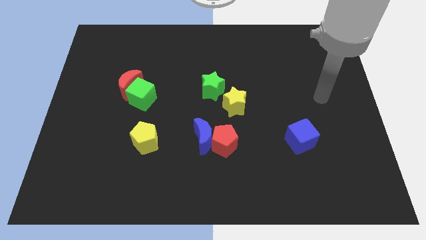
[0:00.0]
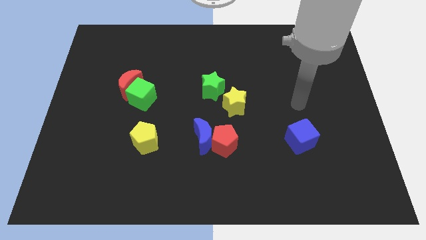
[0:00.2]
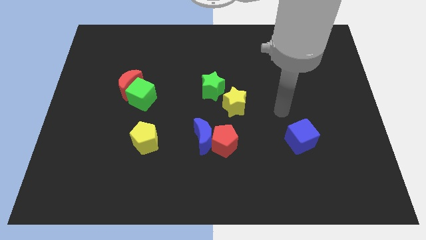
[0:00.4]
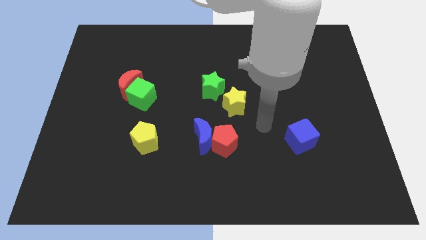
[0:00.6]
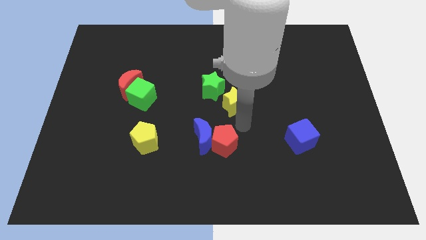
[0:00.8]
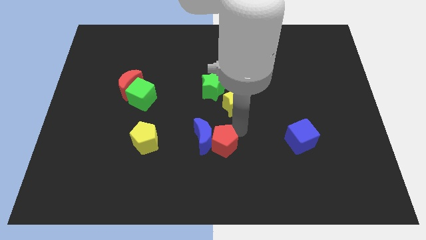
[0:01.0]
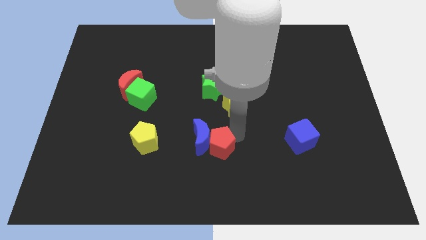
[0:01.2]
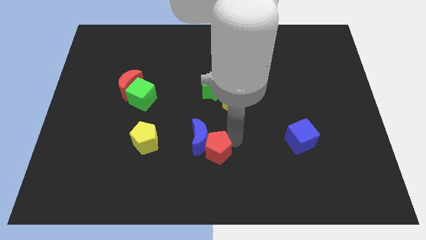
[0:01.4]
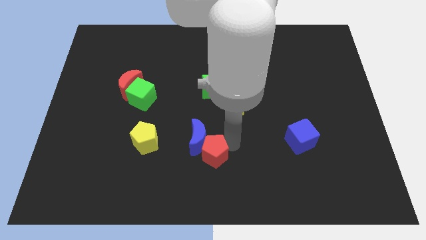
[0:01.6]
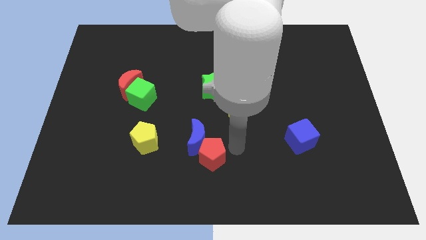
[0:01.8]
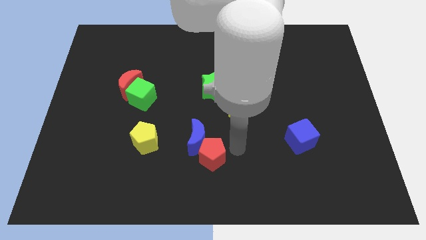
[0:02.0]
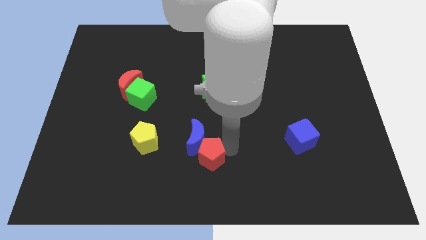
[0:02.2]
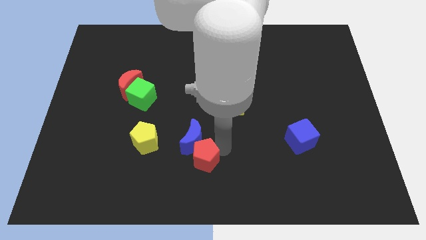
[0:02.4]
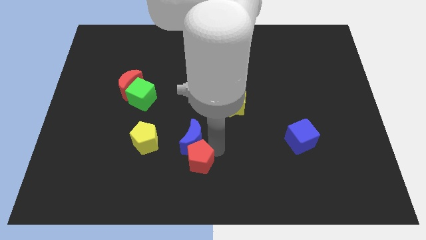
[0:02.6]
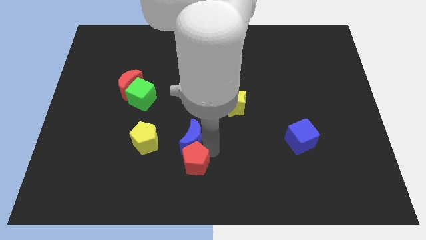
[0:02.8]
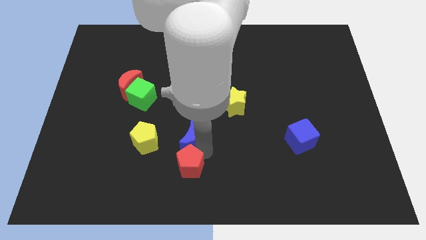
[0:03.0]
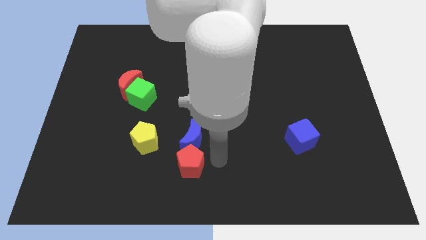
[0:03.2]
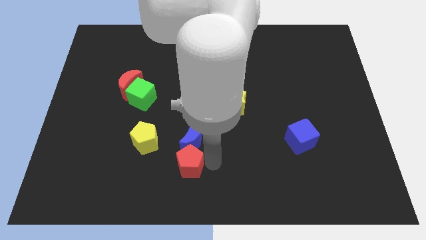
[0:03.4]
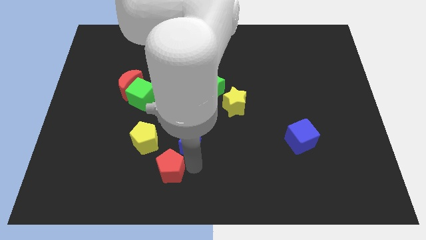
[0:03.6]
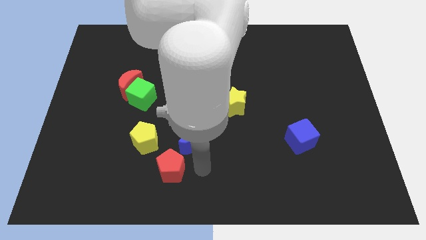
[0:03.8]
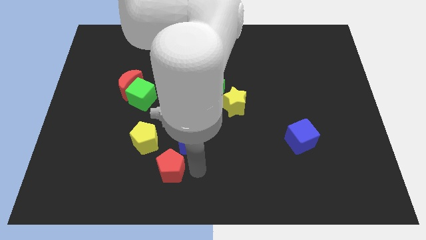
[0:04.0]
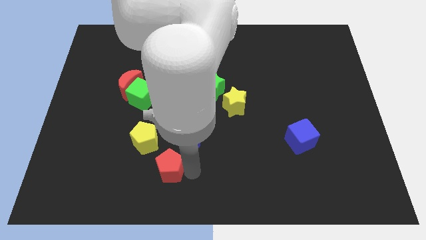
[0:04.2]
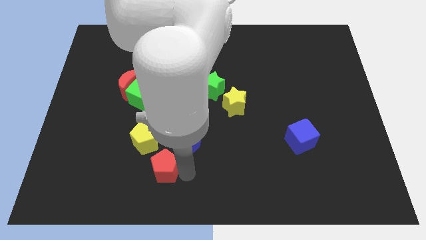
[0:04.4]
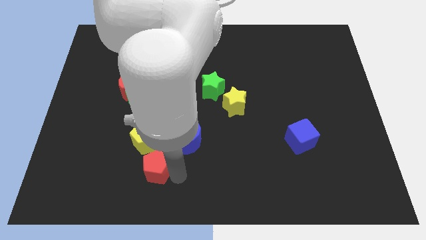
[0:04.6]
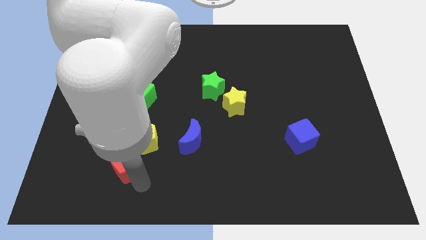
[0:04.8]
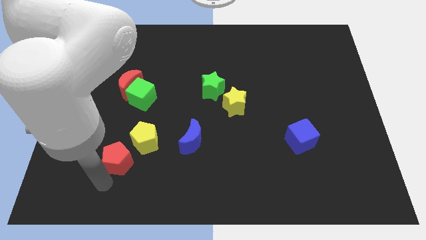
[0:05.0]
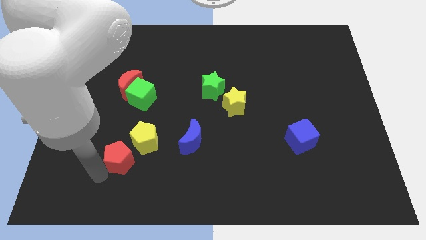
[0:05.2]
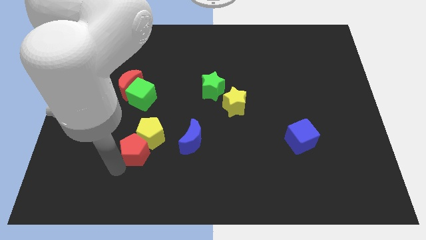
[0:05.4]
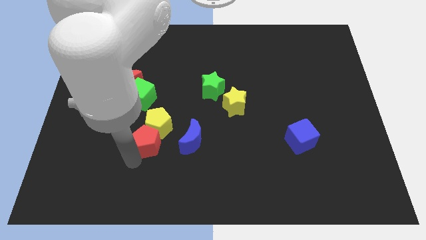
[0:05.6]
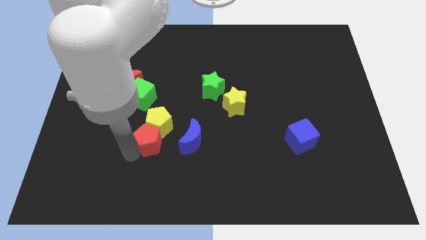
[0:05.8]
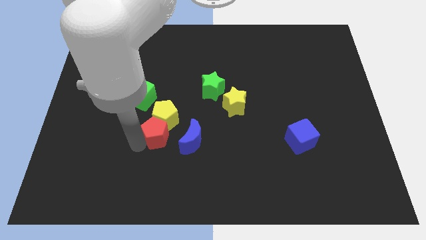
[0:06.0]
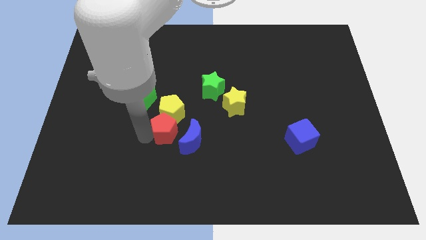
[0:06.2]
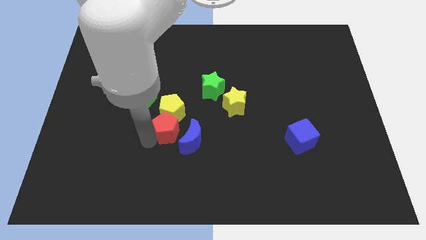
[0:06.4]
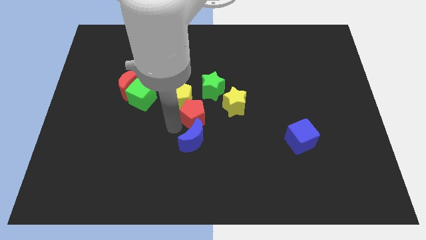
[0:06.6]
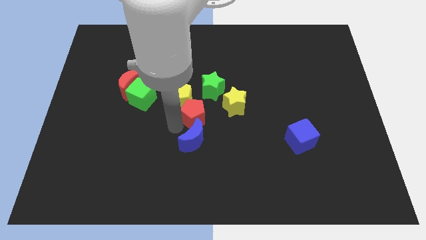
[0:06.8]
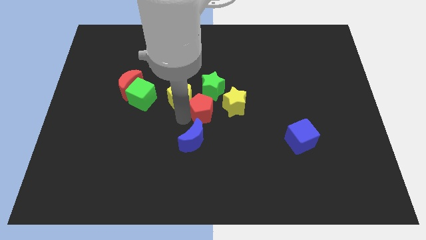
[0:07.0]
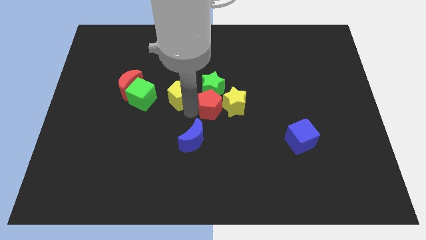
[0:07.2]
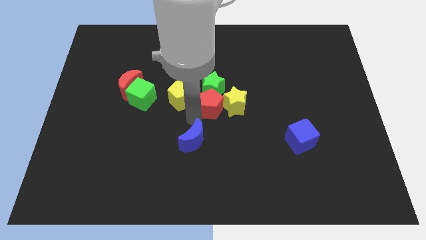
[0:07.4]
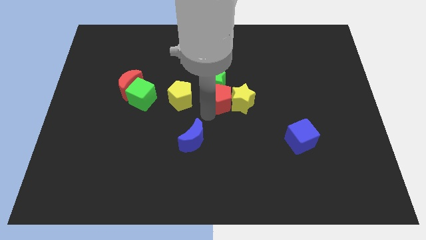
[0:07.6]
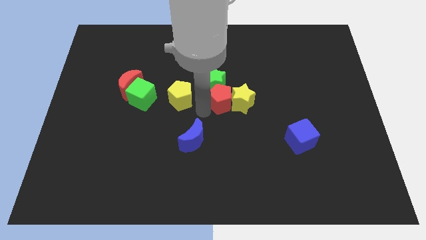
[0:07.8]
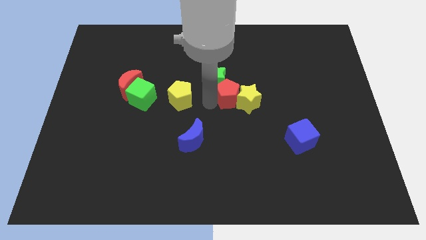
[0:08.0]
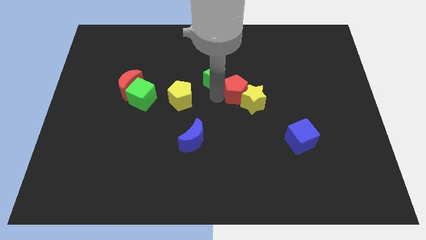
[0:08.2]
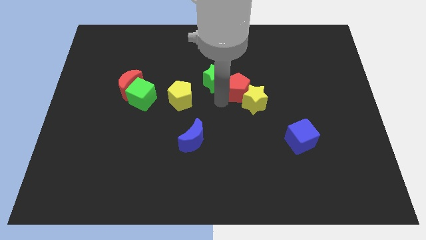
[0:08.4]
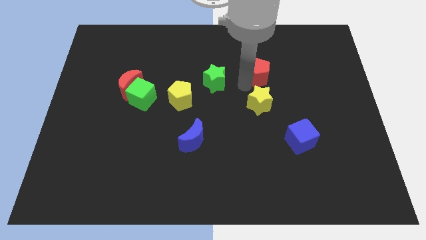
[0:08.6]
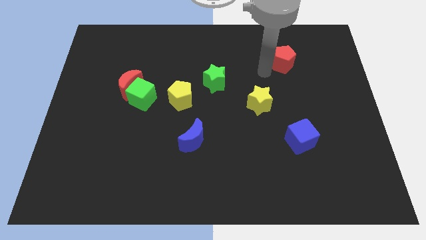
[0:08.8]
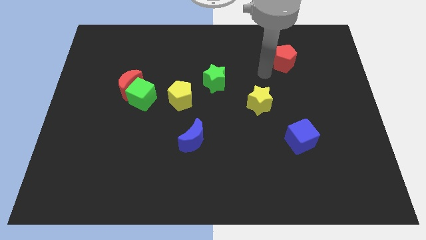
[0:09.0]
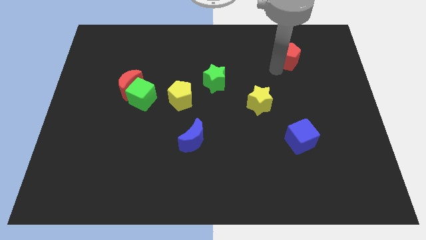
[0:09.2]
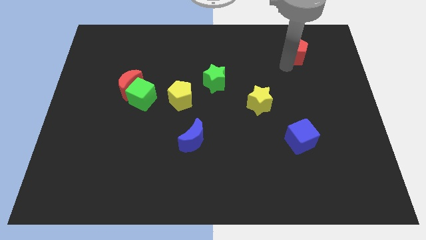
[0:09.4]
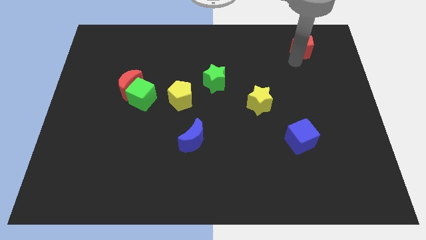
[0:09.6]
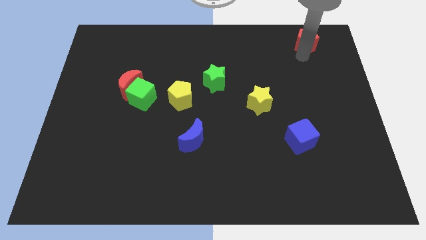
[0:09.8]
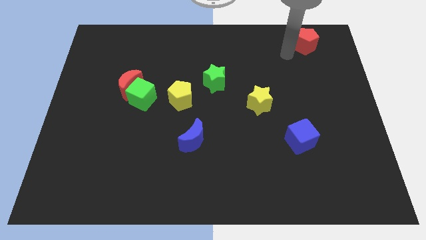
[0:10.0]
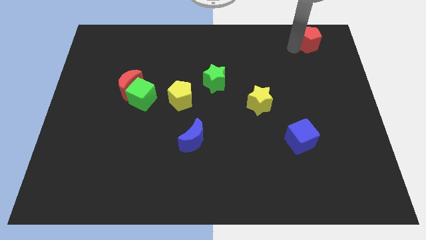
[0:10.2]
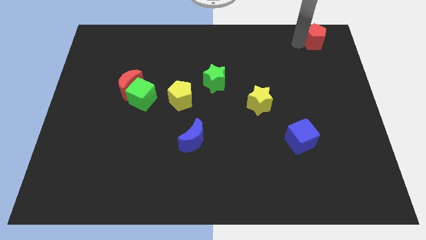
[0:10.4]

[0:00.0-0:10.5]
push the red pentagon to the top right corner

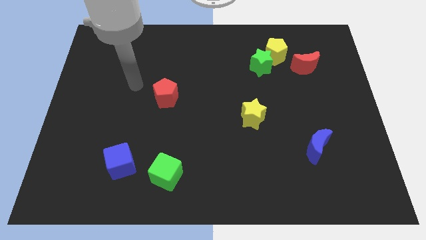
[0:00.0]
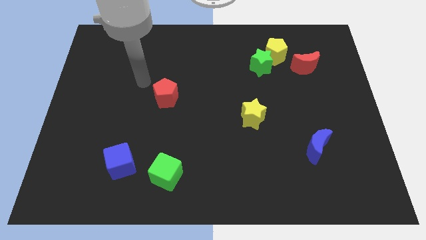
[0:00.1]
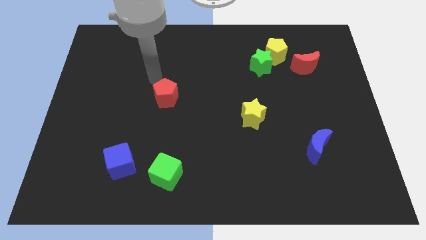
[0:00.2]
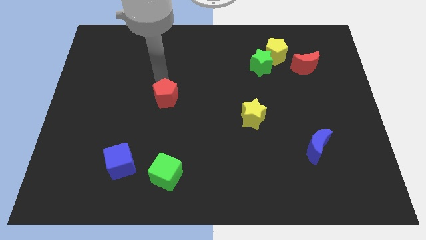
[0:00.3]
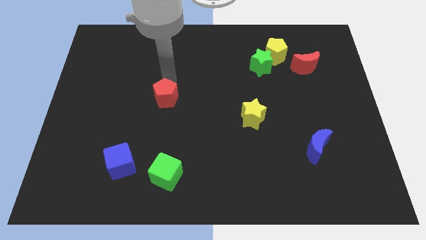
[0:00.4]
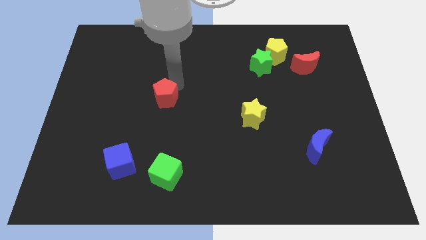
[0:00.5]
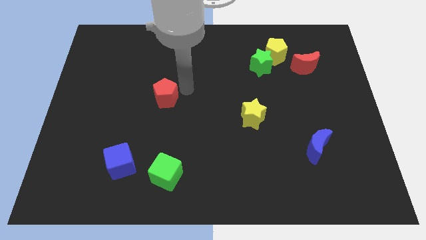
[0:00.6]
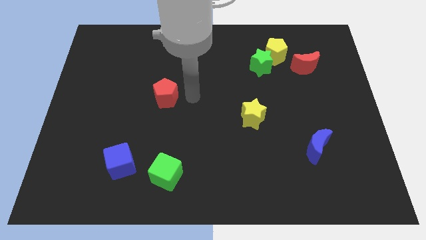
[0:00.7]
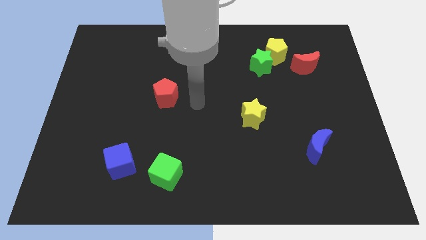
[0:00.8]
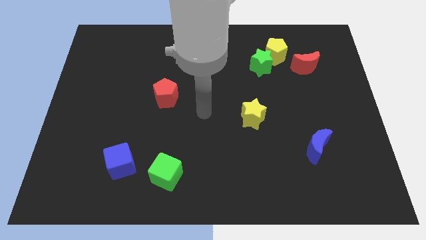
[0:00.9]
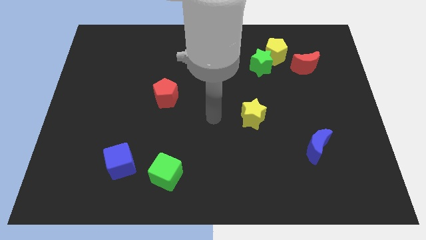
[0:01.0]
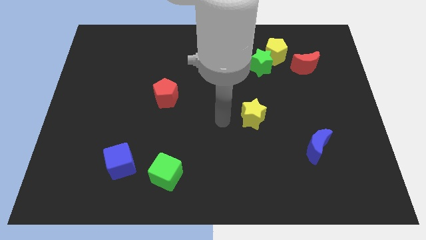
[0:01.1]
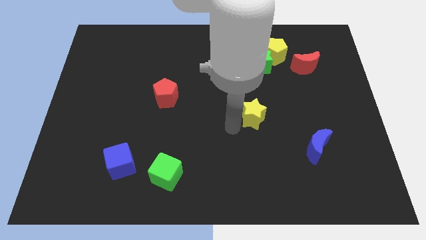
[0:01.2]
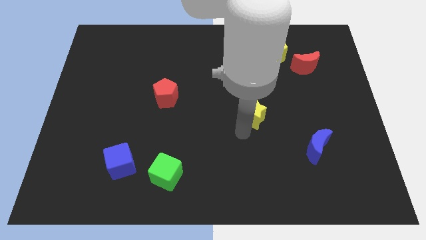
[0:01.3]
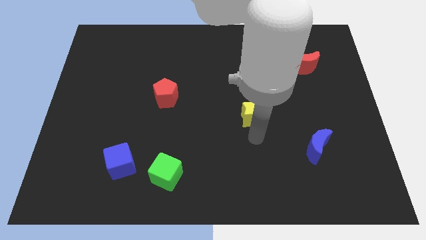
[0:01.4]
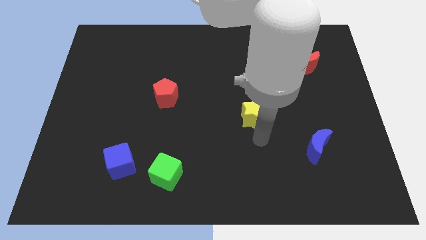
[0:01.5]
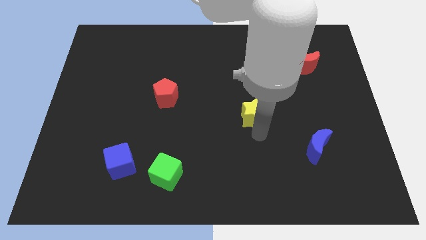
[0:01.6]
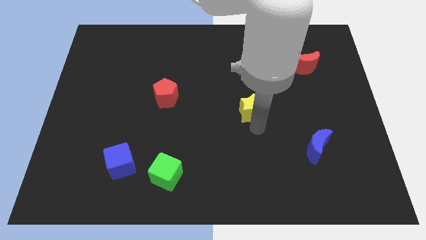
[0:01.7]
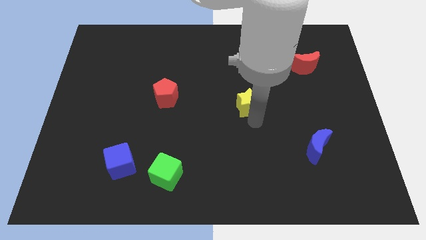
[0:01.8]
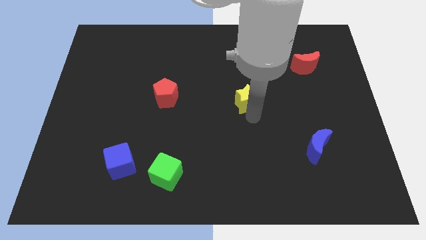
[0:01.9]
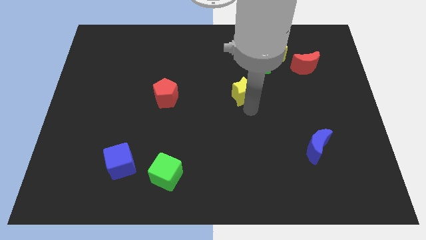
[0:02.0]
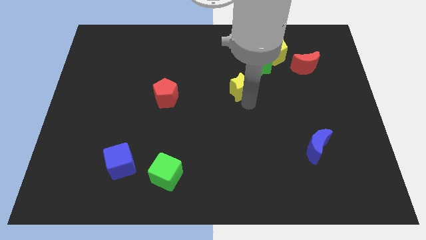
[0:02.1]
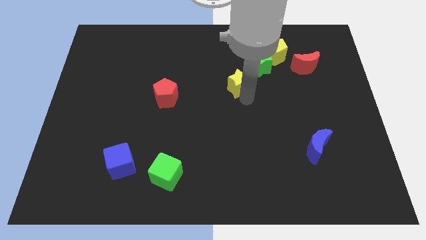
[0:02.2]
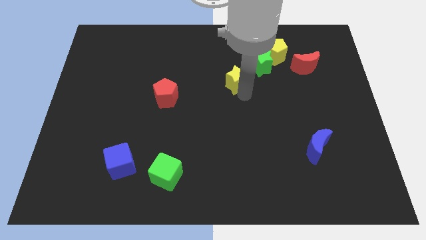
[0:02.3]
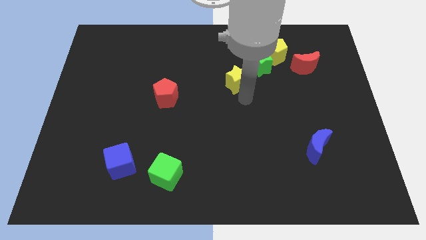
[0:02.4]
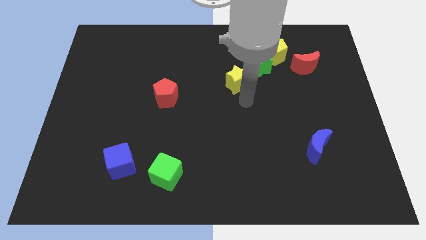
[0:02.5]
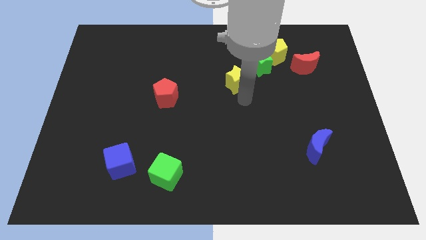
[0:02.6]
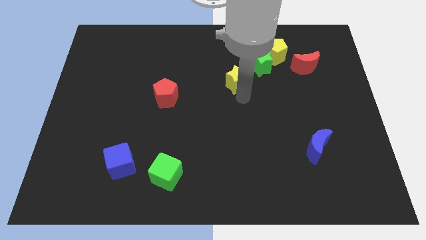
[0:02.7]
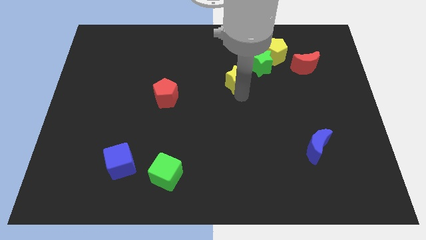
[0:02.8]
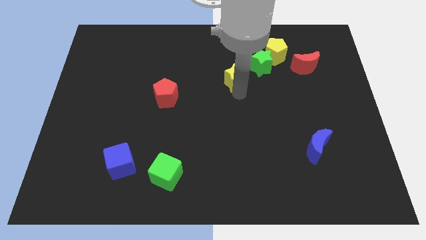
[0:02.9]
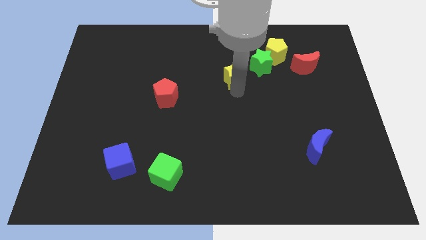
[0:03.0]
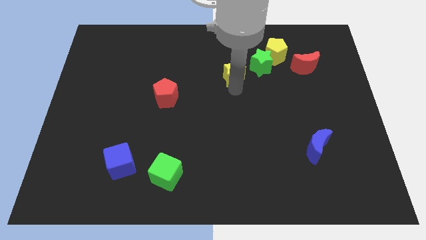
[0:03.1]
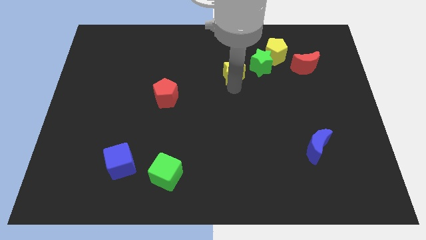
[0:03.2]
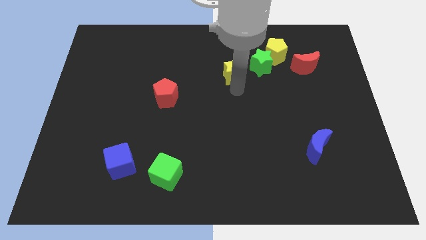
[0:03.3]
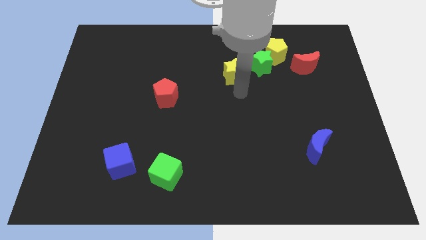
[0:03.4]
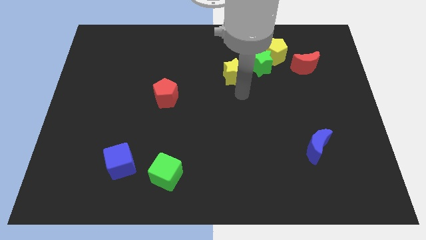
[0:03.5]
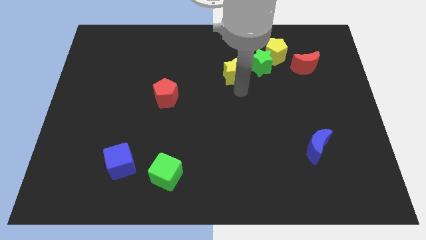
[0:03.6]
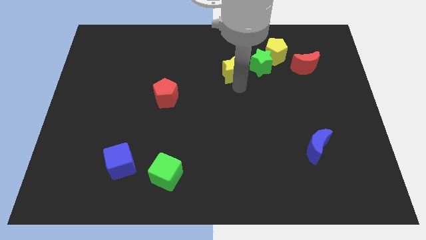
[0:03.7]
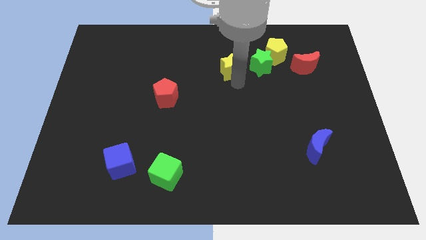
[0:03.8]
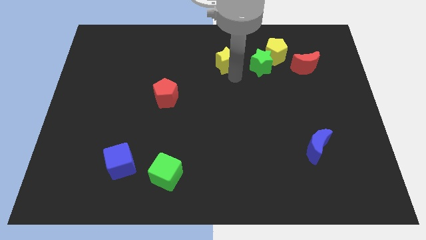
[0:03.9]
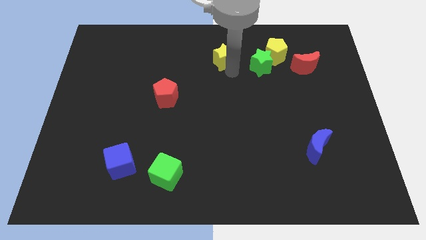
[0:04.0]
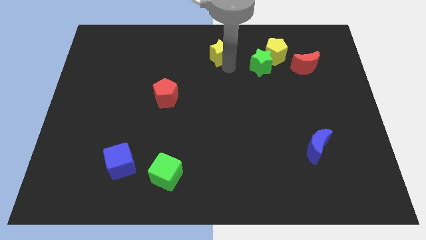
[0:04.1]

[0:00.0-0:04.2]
move the yellow star to the top
